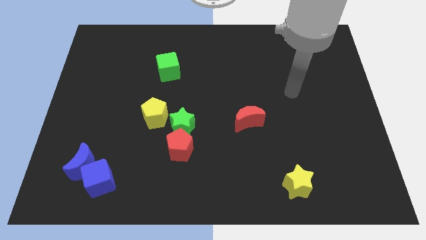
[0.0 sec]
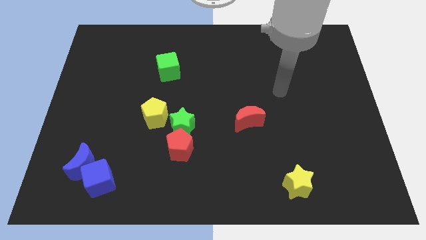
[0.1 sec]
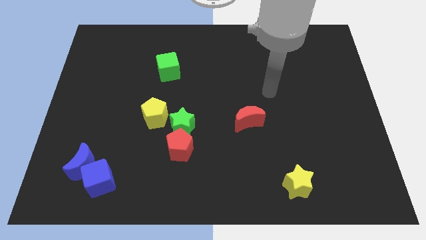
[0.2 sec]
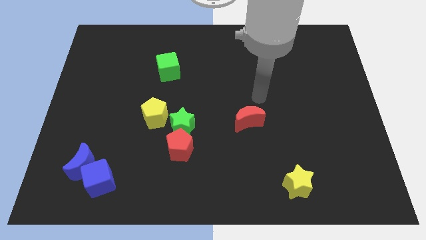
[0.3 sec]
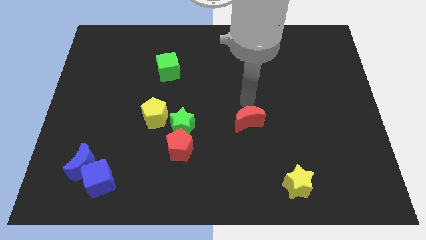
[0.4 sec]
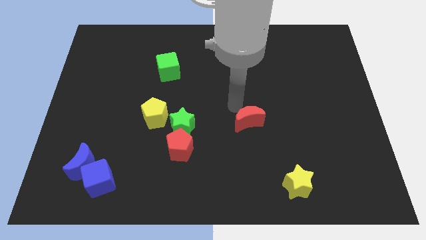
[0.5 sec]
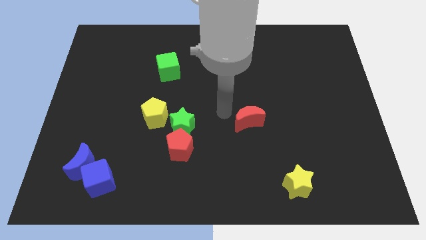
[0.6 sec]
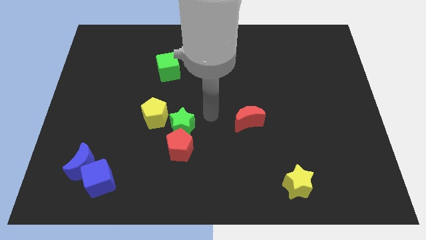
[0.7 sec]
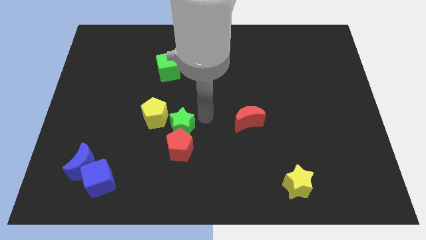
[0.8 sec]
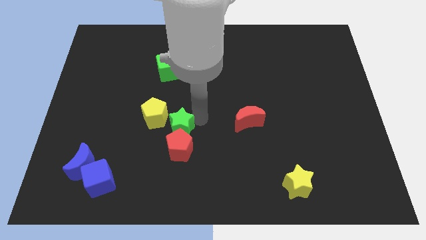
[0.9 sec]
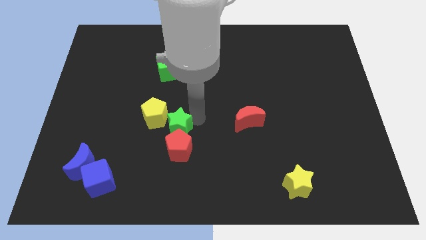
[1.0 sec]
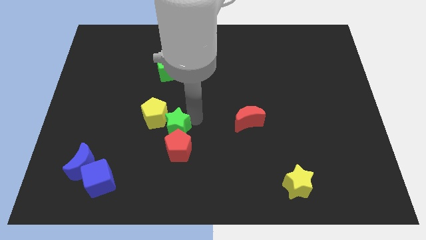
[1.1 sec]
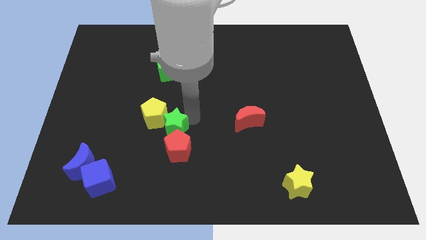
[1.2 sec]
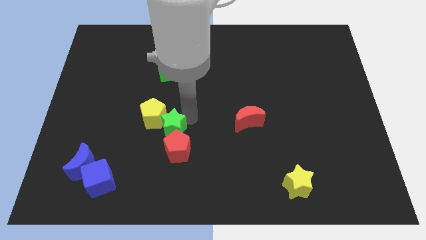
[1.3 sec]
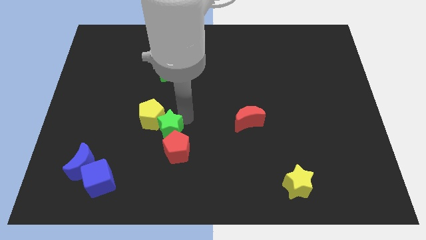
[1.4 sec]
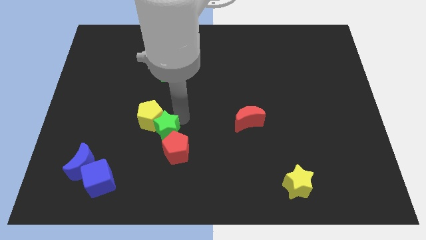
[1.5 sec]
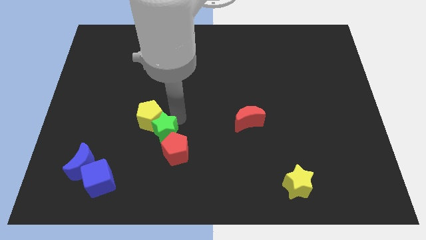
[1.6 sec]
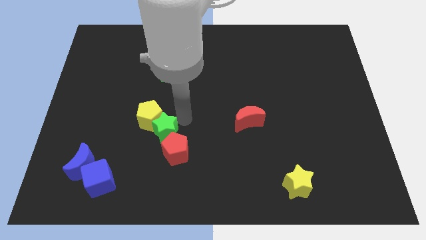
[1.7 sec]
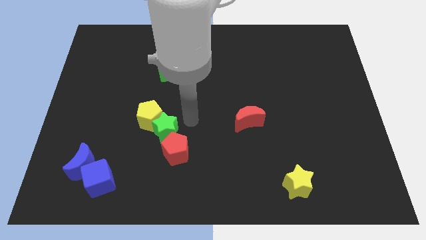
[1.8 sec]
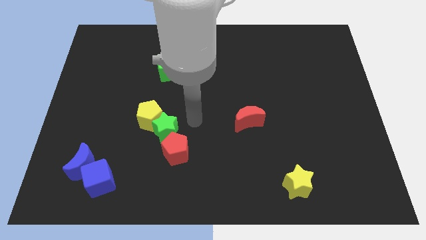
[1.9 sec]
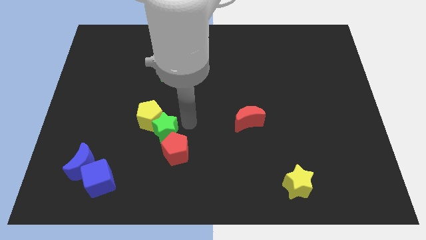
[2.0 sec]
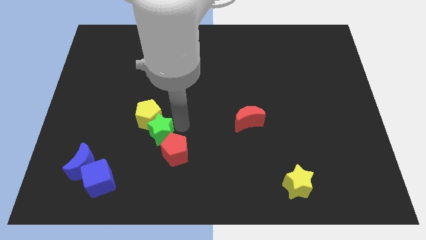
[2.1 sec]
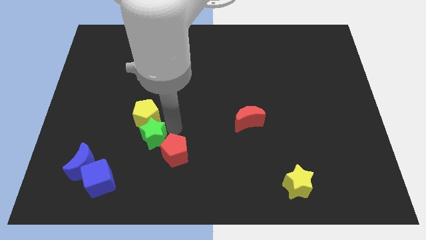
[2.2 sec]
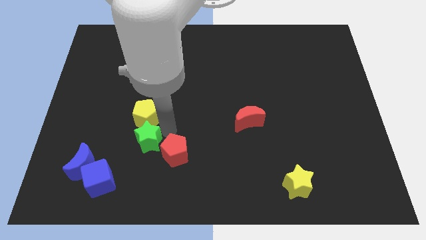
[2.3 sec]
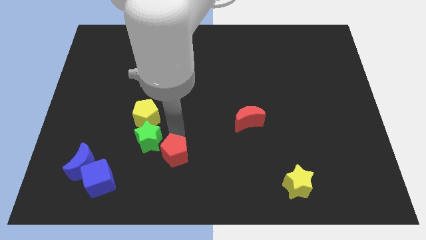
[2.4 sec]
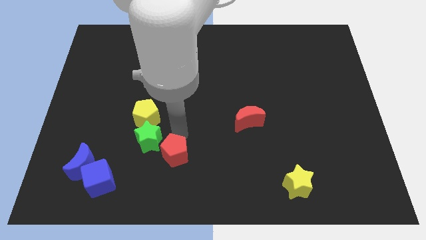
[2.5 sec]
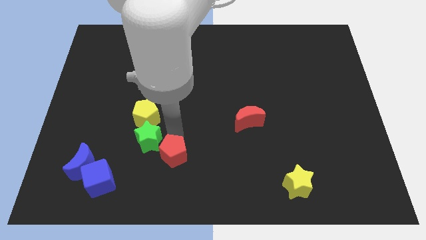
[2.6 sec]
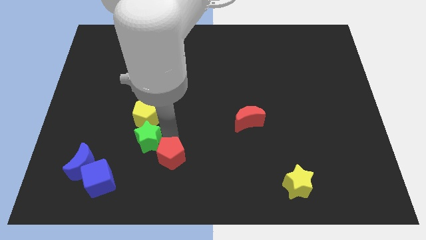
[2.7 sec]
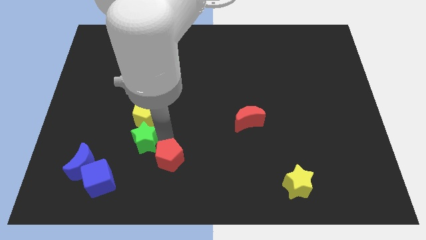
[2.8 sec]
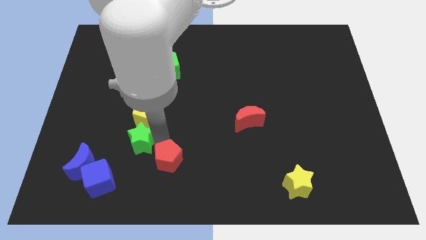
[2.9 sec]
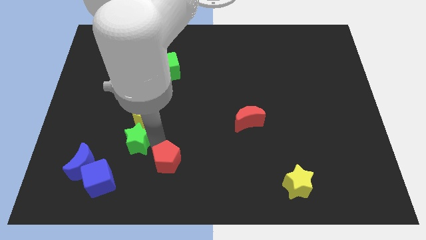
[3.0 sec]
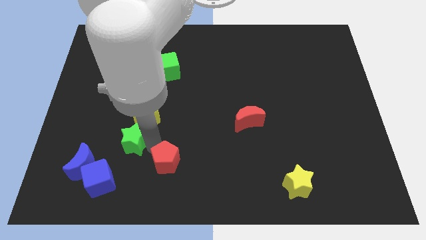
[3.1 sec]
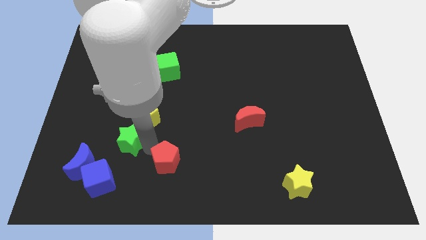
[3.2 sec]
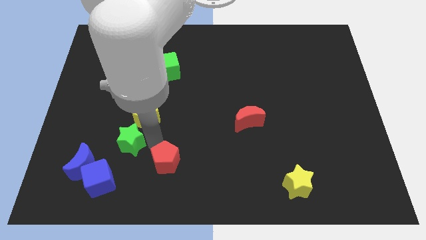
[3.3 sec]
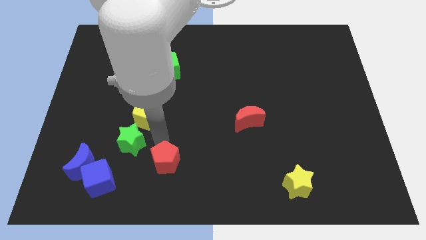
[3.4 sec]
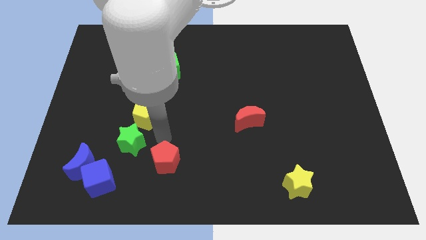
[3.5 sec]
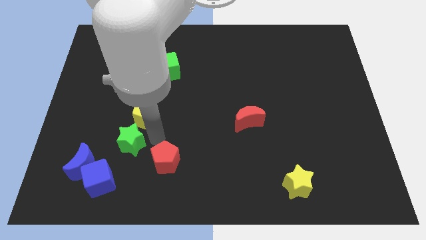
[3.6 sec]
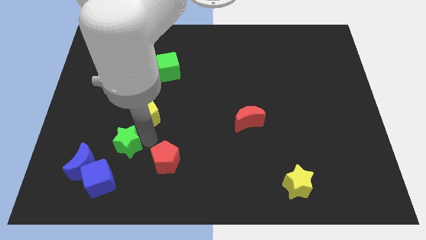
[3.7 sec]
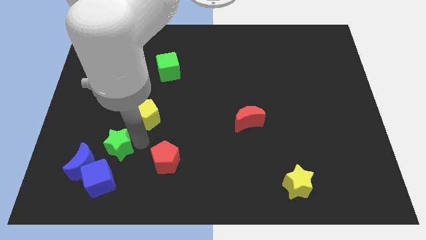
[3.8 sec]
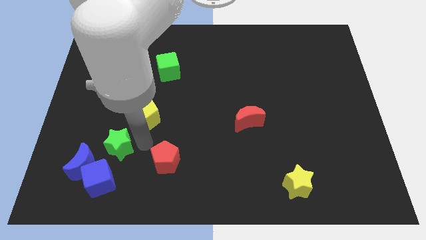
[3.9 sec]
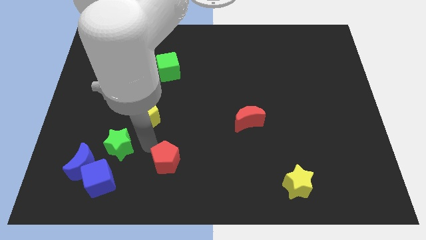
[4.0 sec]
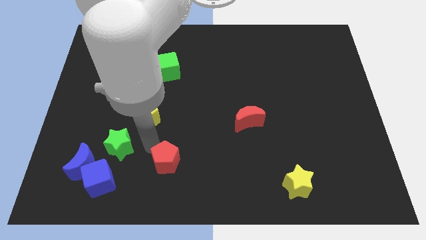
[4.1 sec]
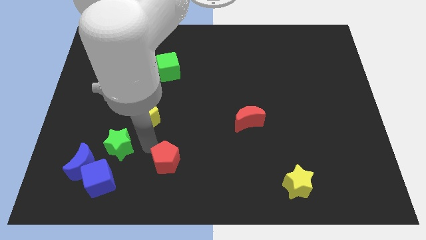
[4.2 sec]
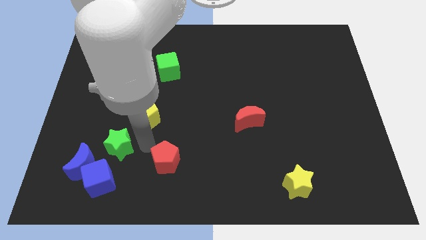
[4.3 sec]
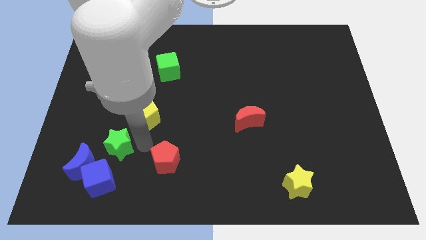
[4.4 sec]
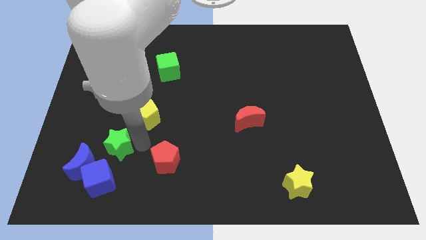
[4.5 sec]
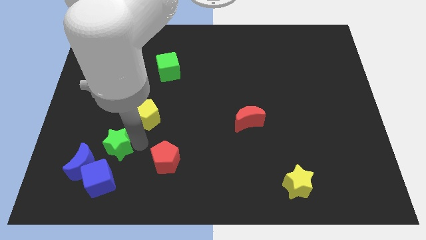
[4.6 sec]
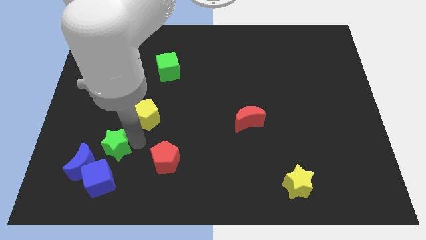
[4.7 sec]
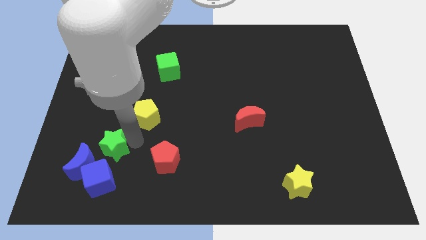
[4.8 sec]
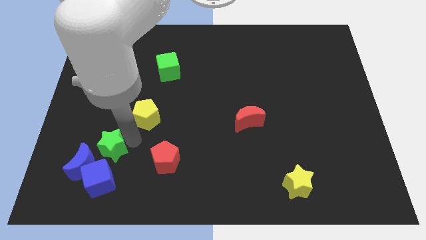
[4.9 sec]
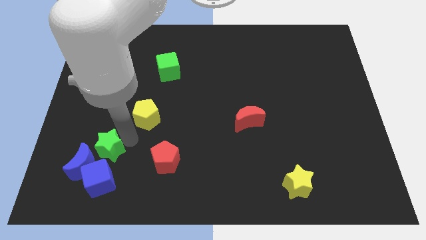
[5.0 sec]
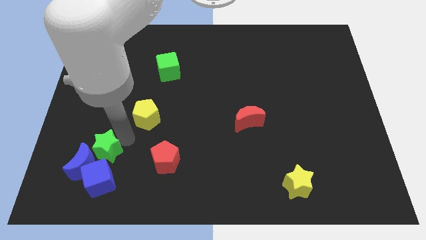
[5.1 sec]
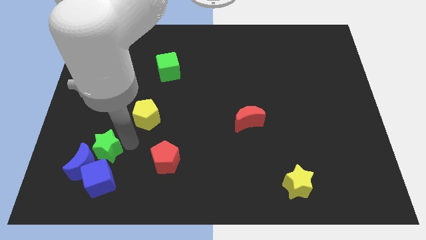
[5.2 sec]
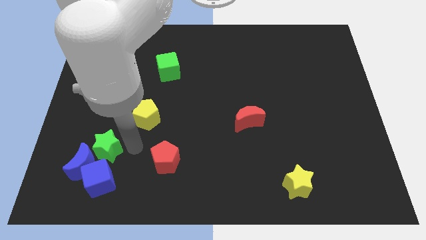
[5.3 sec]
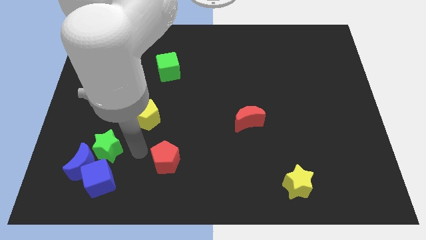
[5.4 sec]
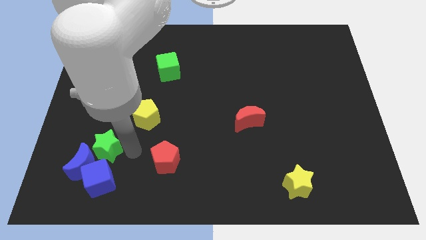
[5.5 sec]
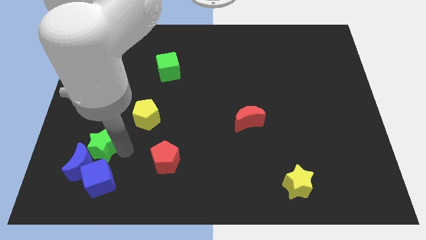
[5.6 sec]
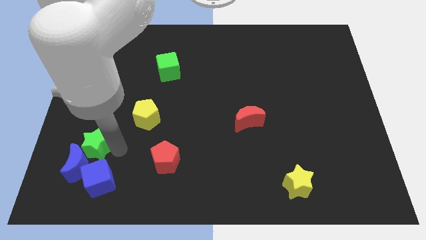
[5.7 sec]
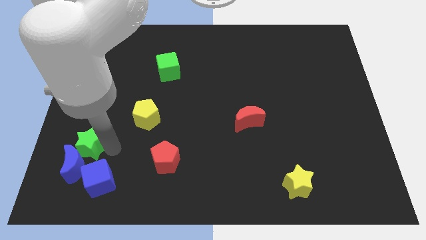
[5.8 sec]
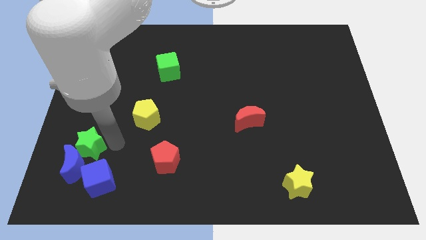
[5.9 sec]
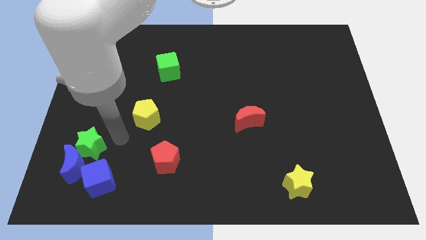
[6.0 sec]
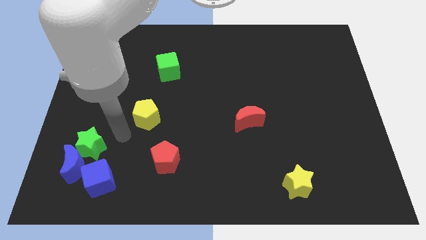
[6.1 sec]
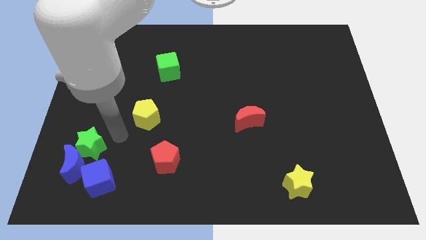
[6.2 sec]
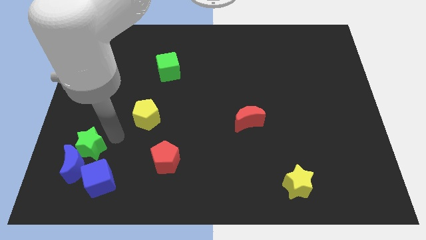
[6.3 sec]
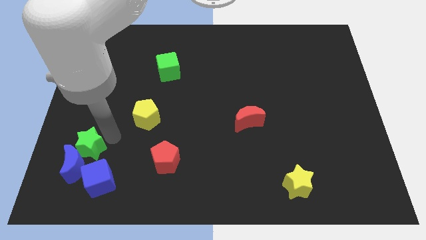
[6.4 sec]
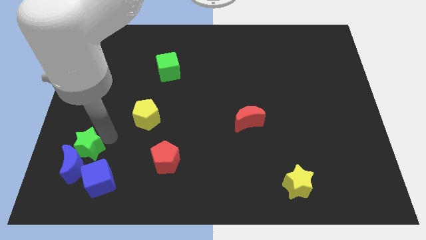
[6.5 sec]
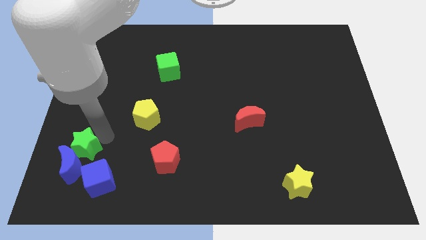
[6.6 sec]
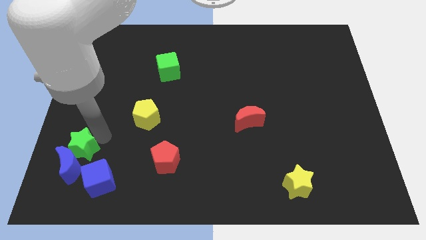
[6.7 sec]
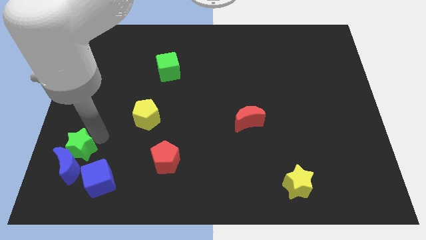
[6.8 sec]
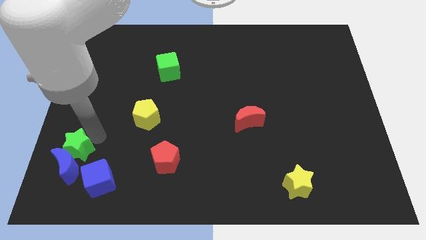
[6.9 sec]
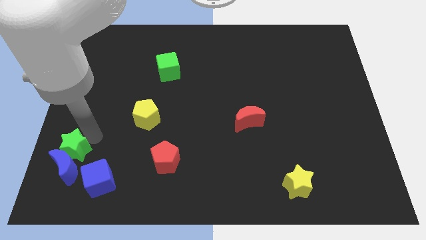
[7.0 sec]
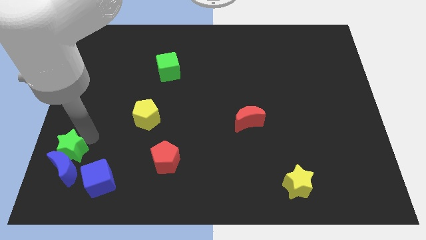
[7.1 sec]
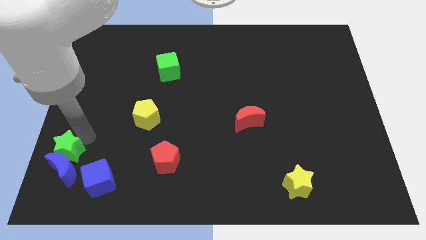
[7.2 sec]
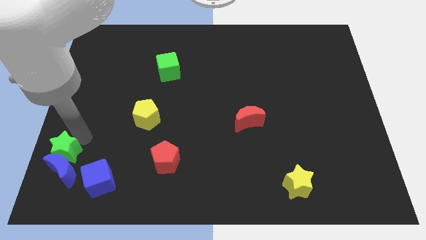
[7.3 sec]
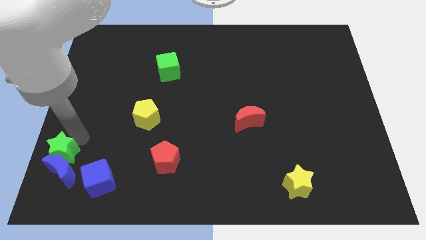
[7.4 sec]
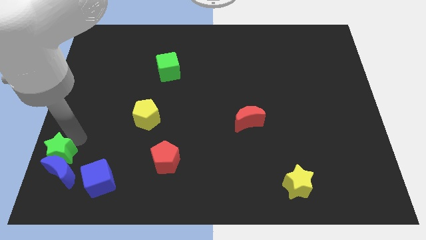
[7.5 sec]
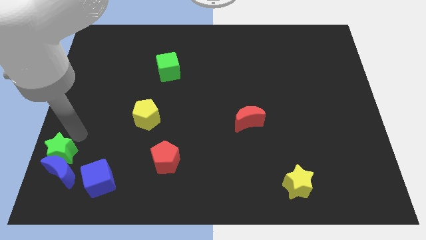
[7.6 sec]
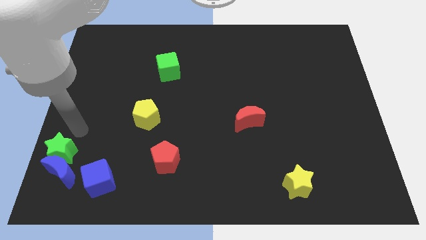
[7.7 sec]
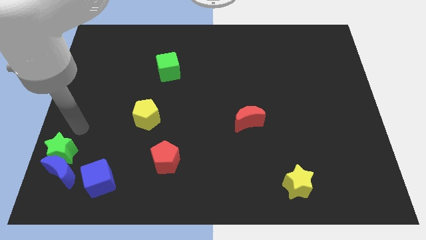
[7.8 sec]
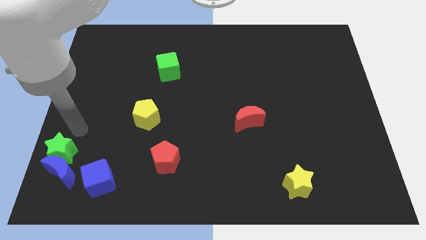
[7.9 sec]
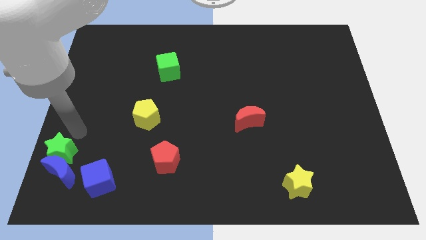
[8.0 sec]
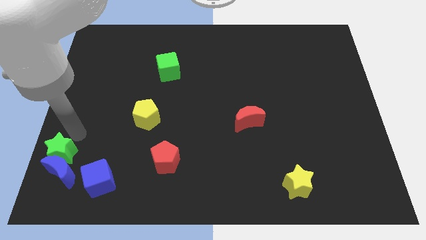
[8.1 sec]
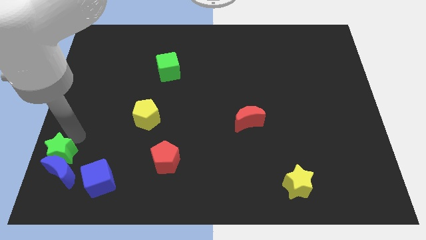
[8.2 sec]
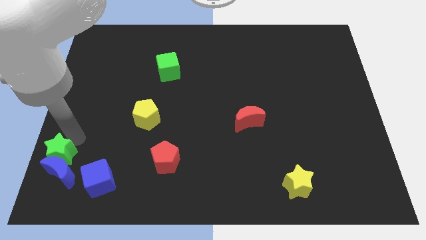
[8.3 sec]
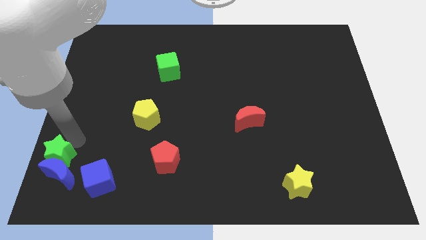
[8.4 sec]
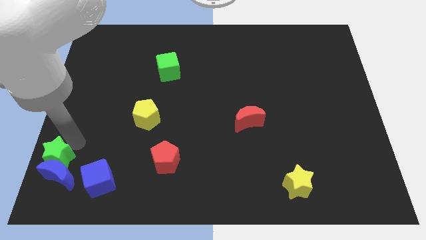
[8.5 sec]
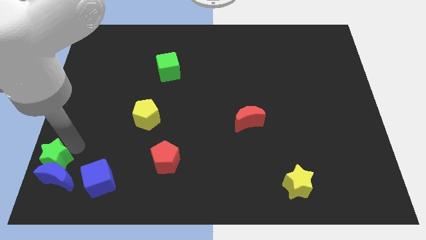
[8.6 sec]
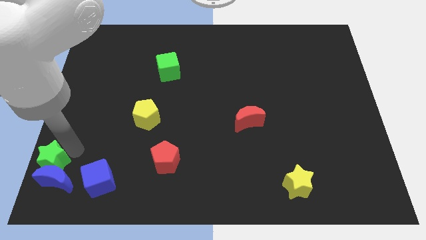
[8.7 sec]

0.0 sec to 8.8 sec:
slide the green star to the bottom left
